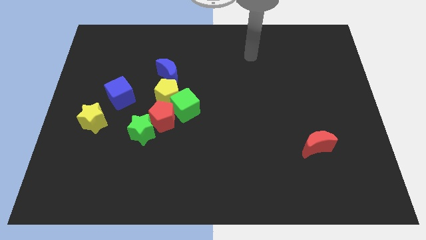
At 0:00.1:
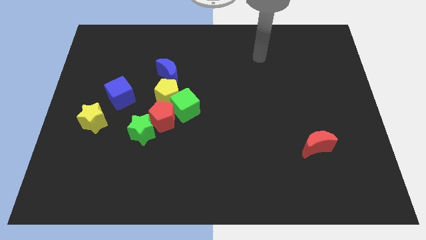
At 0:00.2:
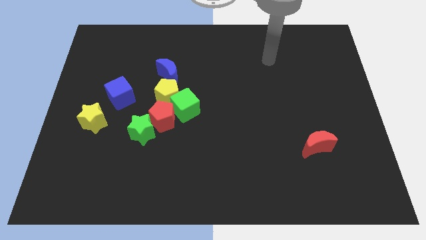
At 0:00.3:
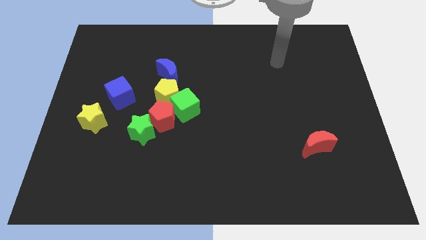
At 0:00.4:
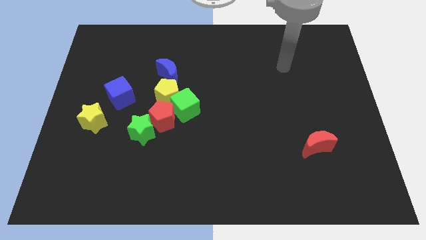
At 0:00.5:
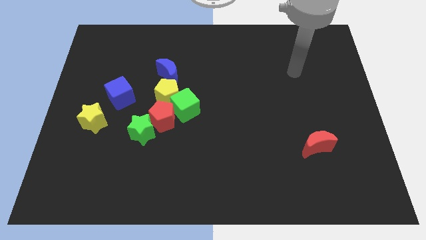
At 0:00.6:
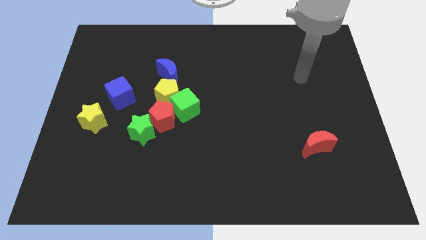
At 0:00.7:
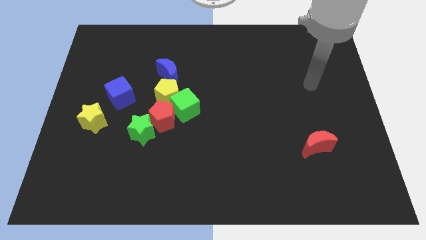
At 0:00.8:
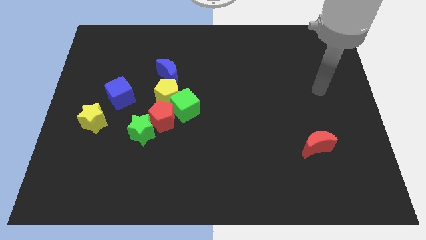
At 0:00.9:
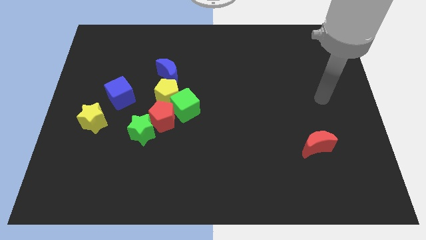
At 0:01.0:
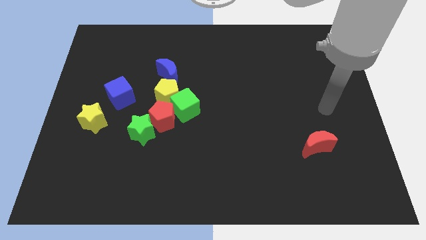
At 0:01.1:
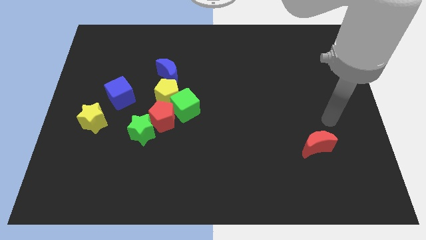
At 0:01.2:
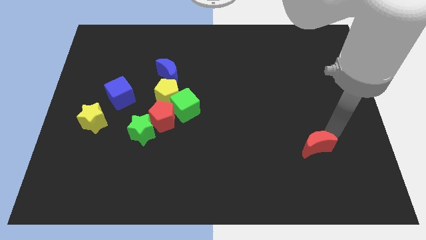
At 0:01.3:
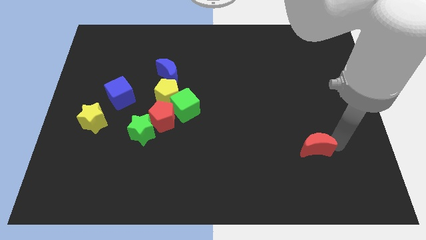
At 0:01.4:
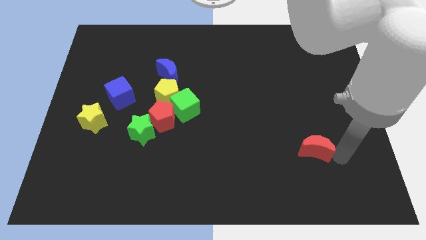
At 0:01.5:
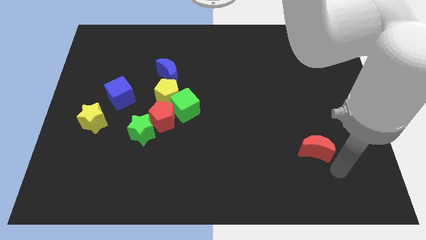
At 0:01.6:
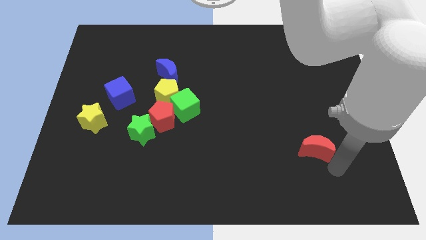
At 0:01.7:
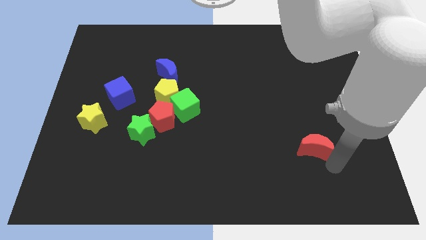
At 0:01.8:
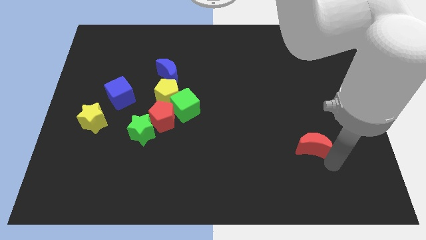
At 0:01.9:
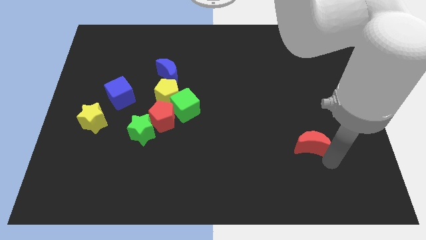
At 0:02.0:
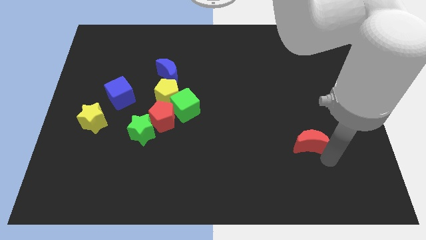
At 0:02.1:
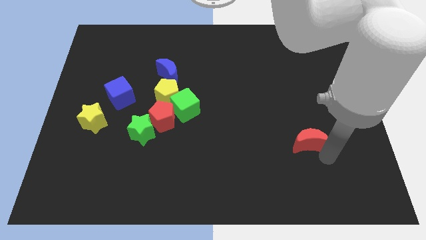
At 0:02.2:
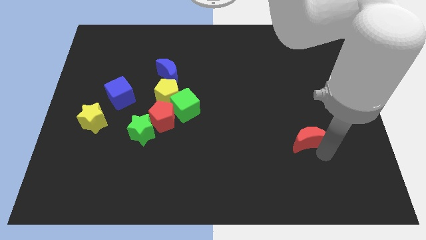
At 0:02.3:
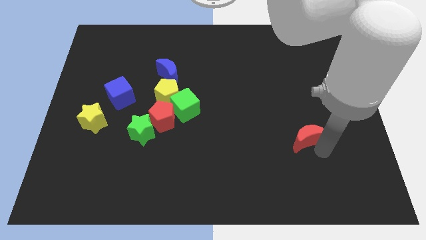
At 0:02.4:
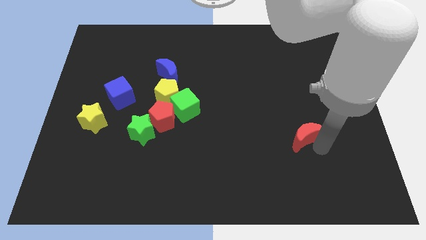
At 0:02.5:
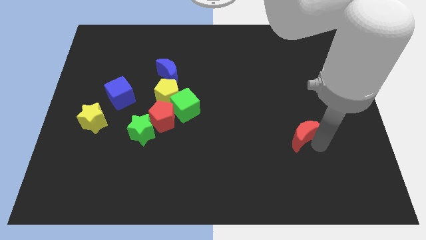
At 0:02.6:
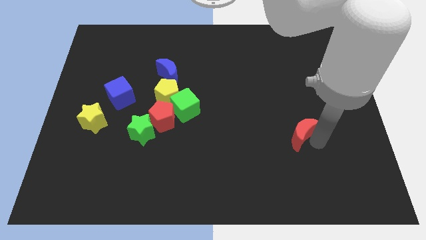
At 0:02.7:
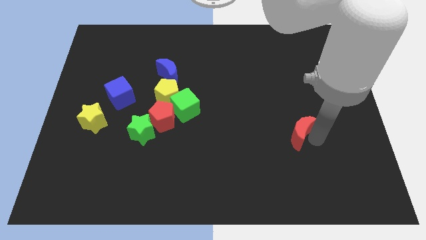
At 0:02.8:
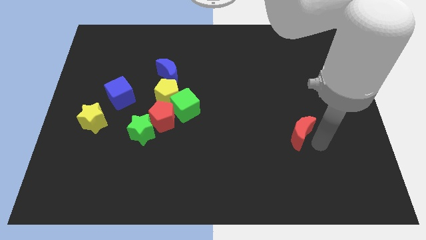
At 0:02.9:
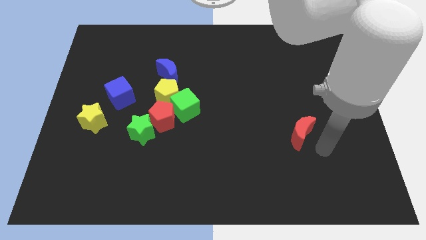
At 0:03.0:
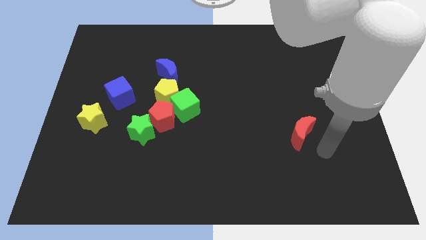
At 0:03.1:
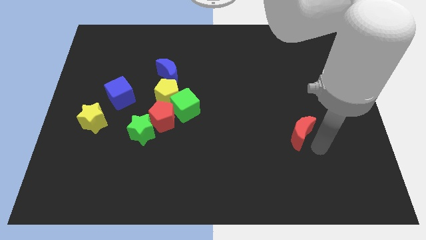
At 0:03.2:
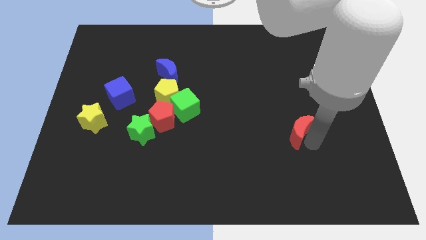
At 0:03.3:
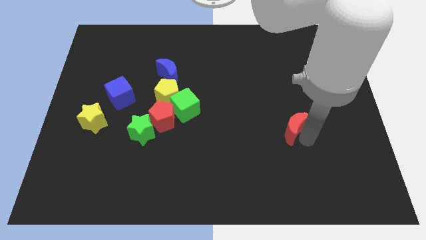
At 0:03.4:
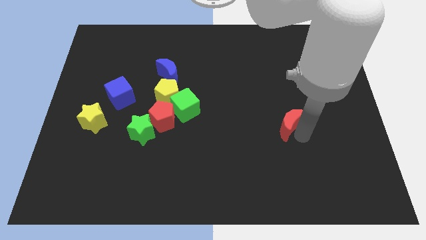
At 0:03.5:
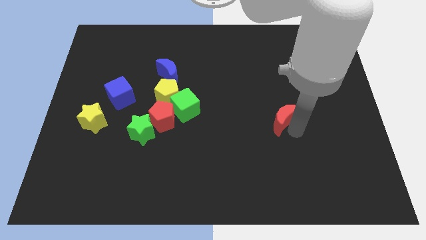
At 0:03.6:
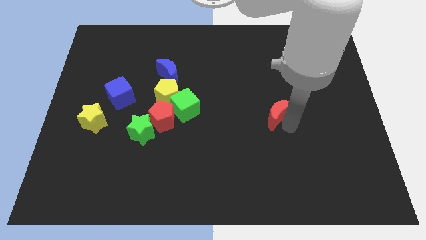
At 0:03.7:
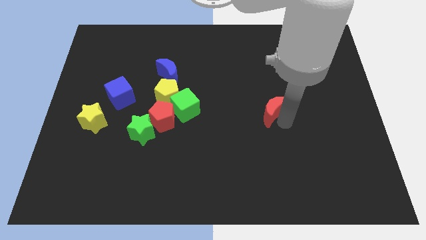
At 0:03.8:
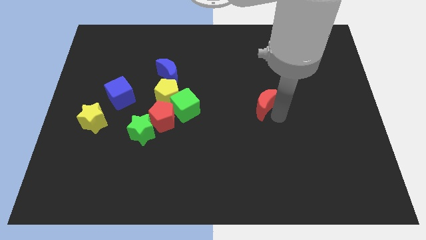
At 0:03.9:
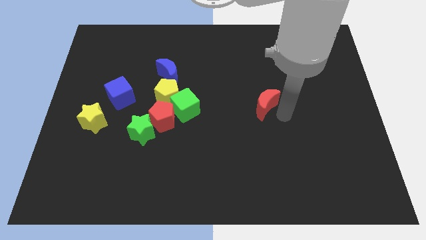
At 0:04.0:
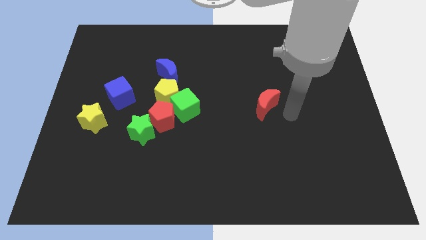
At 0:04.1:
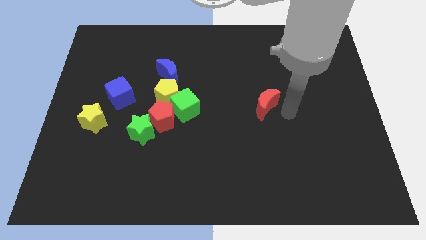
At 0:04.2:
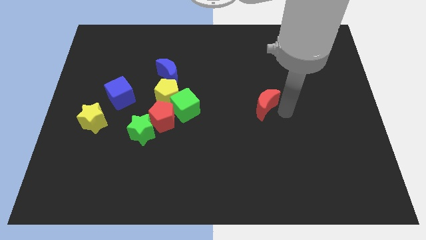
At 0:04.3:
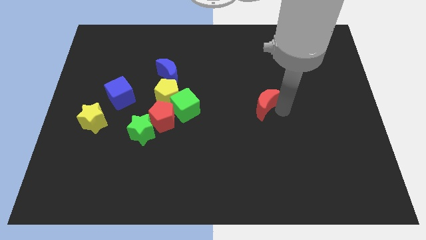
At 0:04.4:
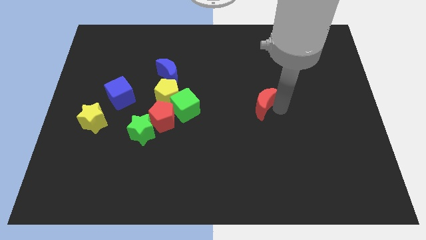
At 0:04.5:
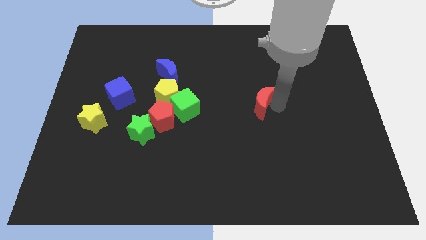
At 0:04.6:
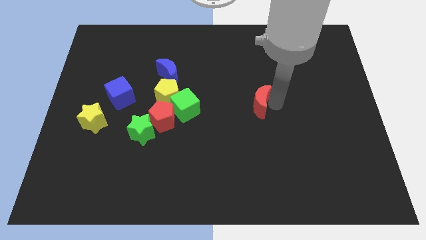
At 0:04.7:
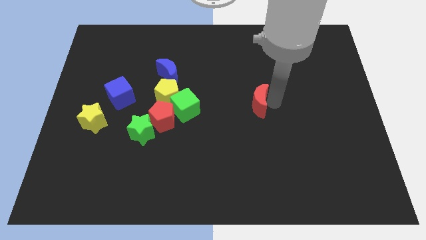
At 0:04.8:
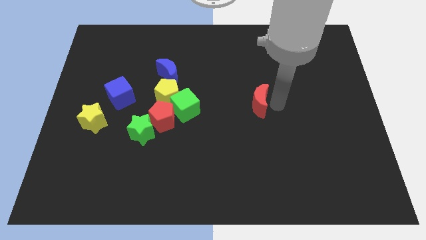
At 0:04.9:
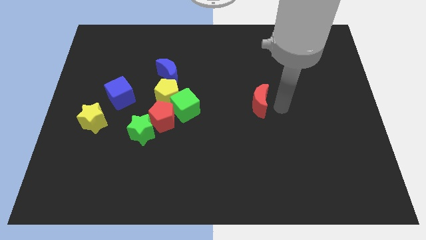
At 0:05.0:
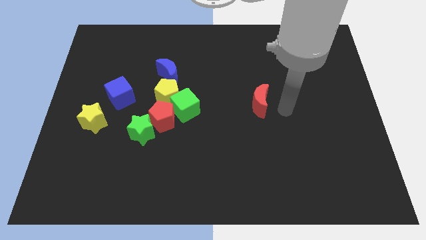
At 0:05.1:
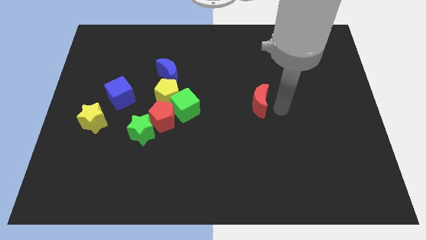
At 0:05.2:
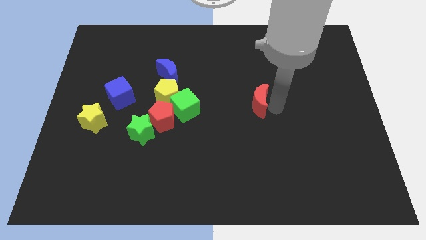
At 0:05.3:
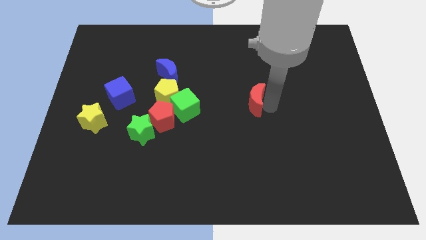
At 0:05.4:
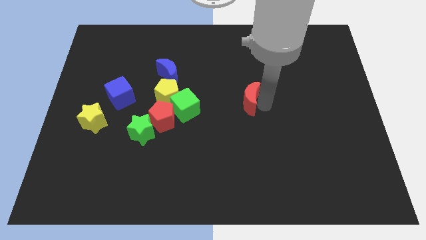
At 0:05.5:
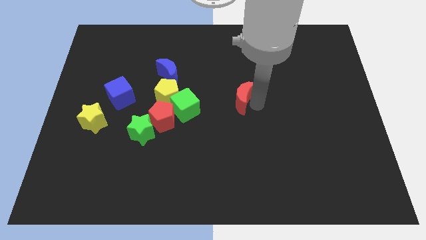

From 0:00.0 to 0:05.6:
move the red moon diagonally up and left

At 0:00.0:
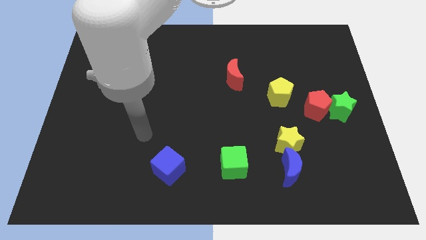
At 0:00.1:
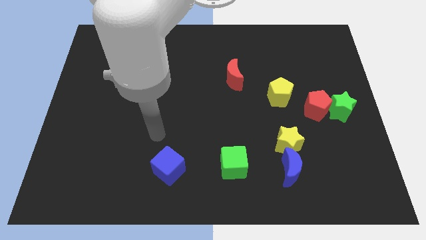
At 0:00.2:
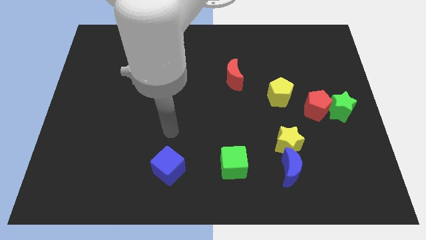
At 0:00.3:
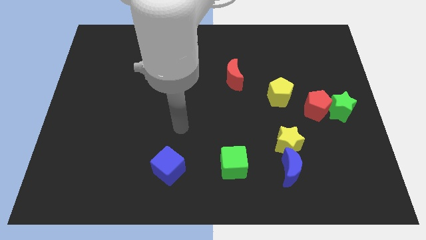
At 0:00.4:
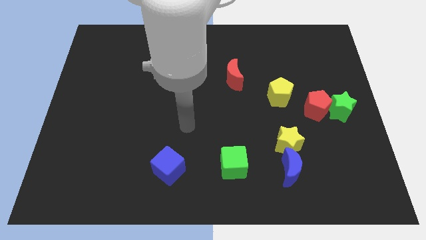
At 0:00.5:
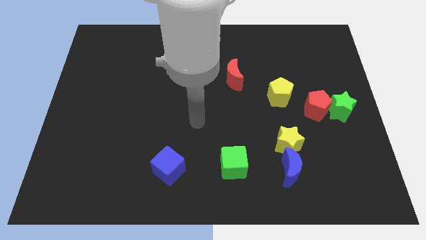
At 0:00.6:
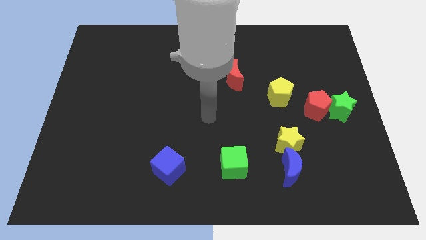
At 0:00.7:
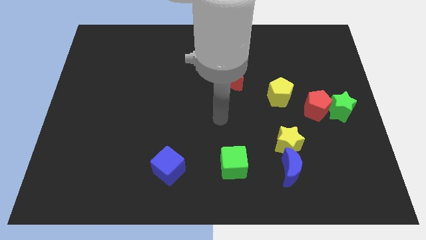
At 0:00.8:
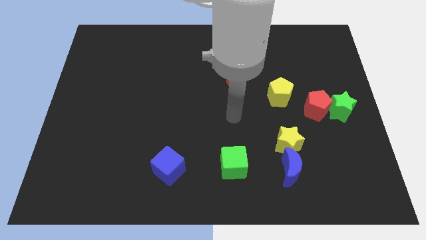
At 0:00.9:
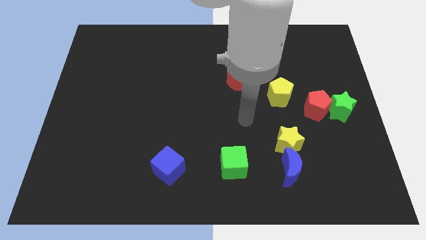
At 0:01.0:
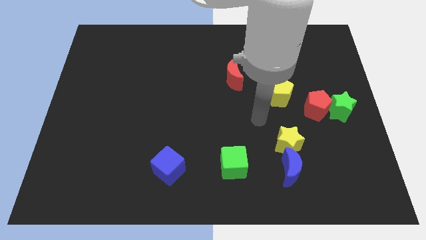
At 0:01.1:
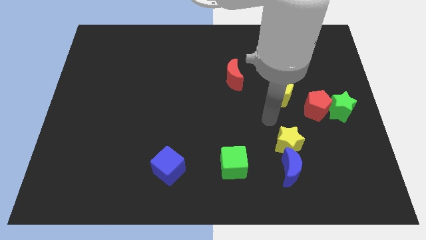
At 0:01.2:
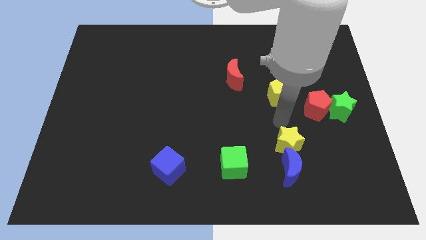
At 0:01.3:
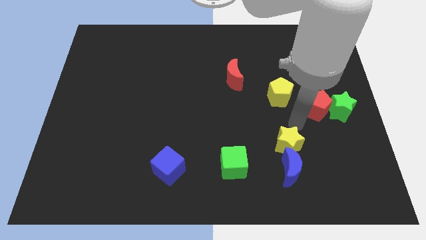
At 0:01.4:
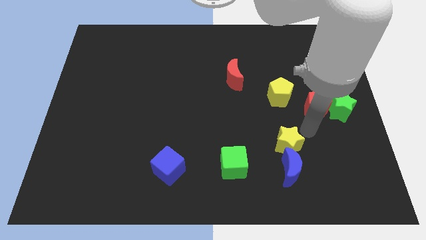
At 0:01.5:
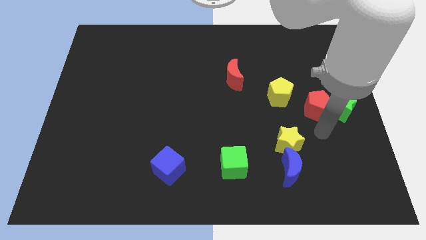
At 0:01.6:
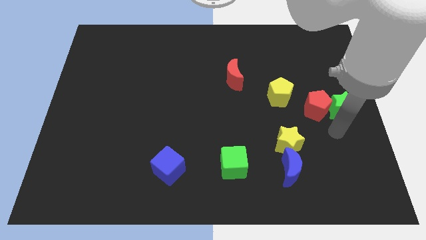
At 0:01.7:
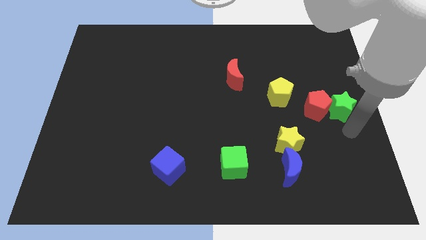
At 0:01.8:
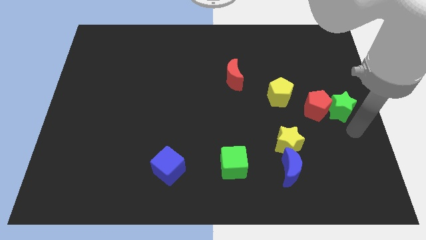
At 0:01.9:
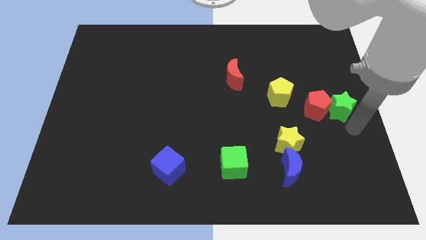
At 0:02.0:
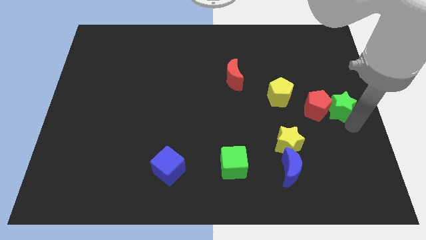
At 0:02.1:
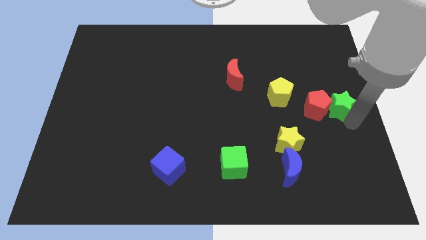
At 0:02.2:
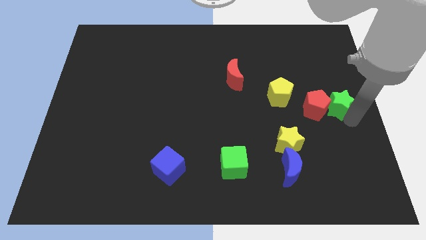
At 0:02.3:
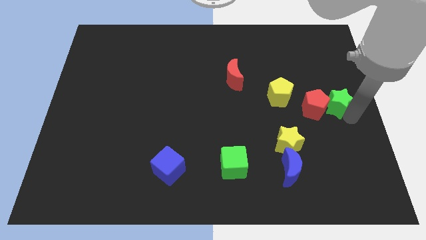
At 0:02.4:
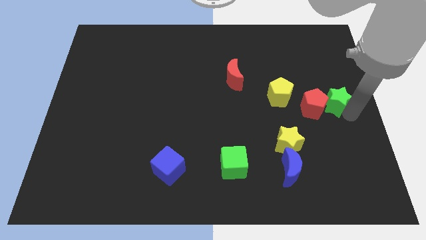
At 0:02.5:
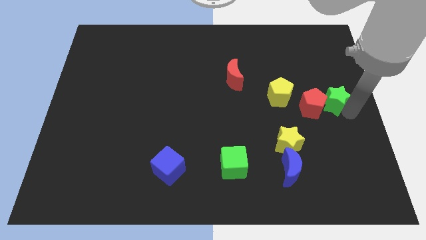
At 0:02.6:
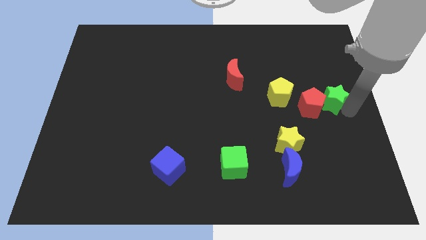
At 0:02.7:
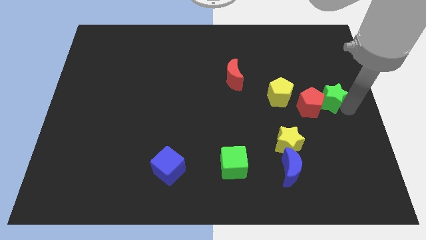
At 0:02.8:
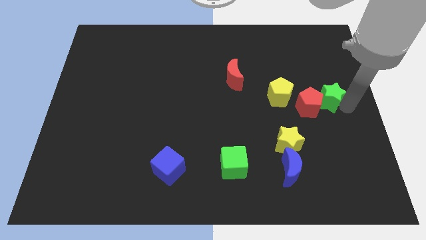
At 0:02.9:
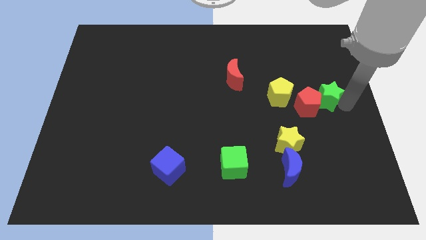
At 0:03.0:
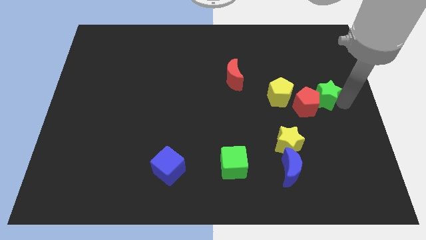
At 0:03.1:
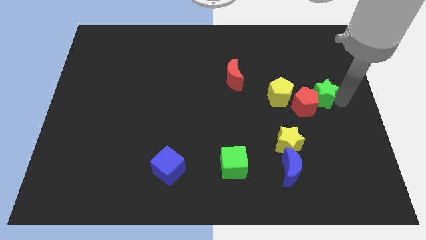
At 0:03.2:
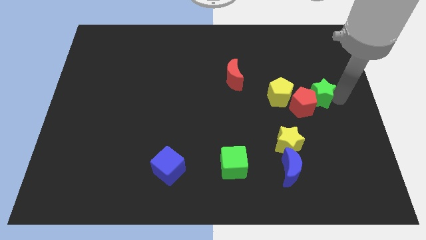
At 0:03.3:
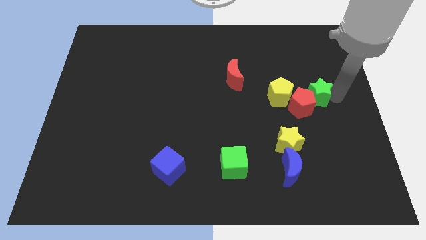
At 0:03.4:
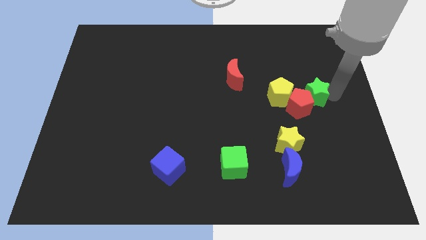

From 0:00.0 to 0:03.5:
push the green star up and then left somewhat
